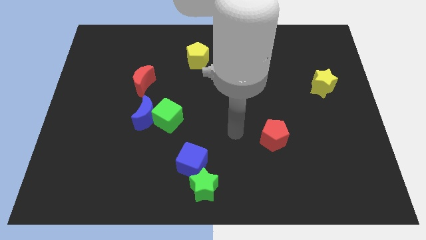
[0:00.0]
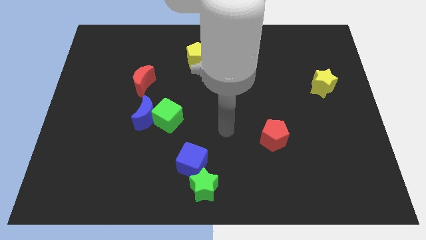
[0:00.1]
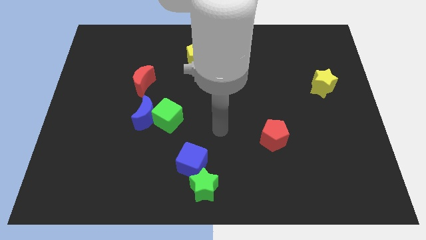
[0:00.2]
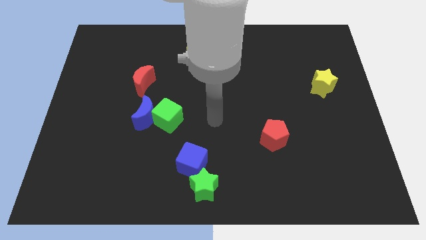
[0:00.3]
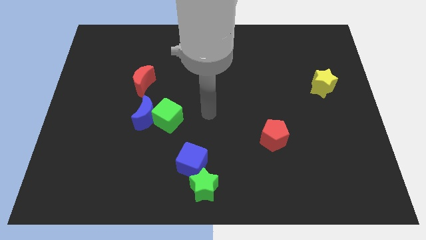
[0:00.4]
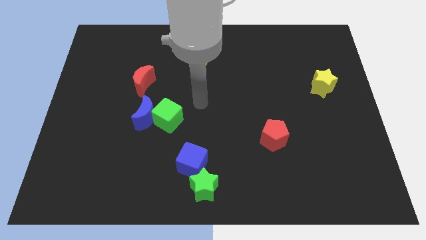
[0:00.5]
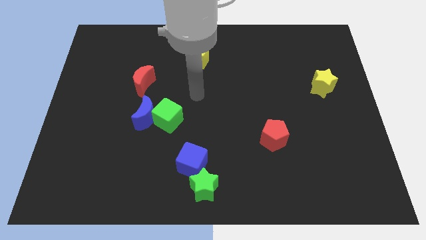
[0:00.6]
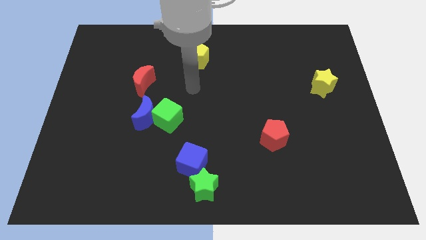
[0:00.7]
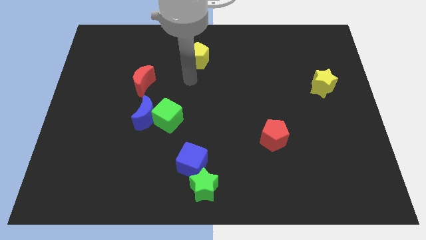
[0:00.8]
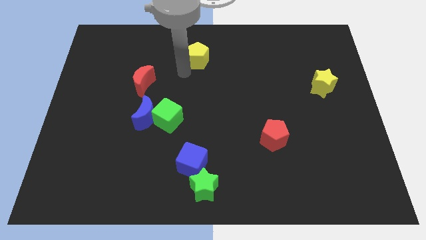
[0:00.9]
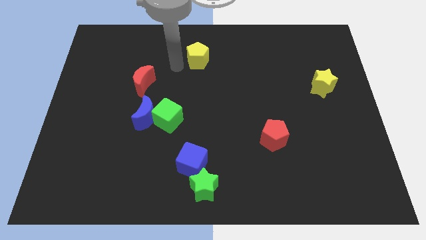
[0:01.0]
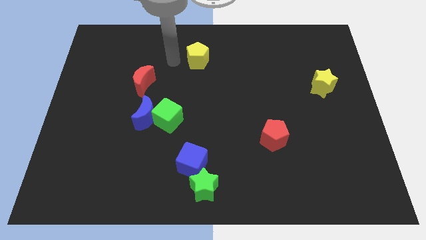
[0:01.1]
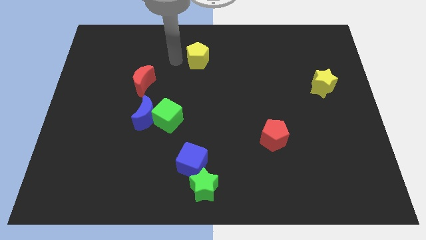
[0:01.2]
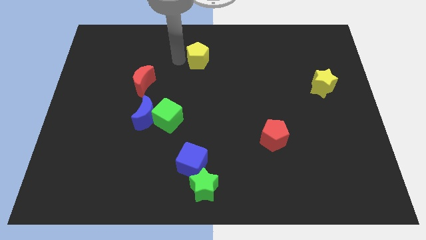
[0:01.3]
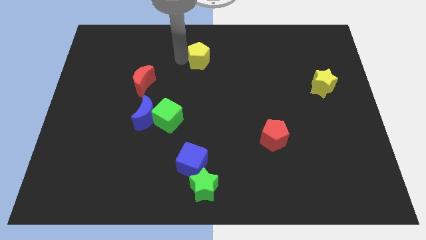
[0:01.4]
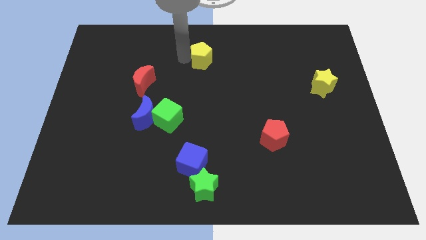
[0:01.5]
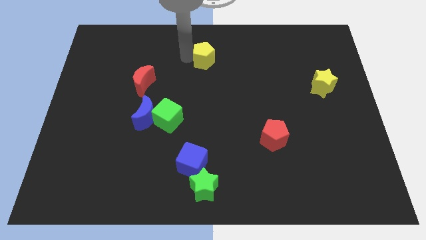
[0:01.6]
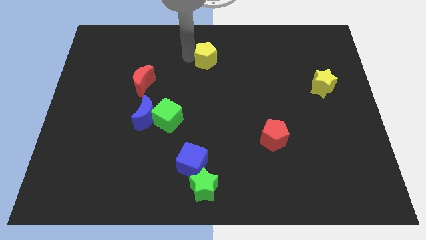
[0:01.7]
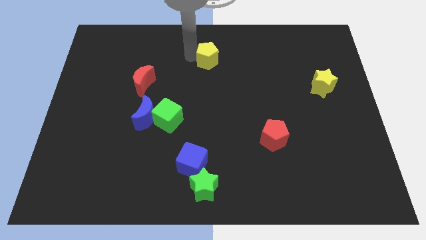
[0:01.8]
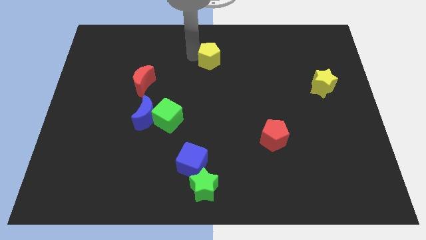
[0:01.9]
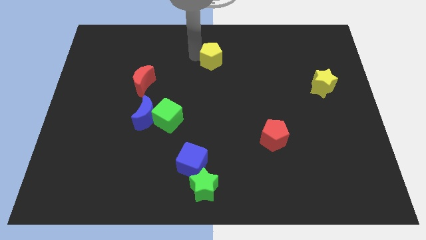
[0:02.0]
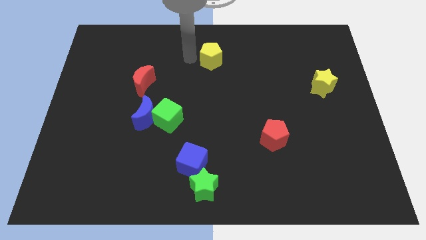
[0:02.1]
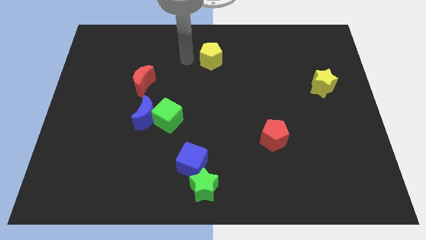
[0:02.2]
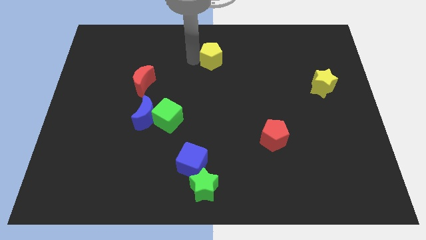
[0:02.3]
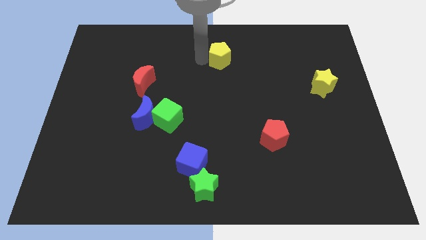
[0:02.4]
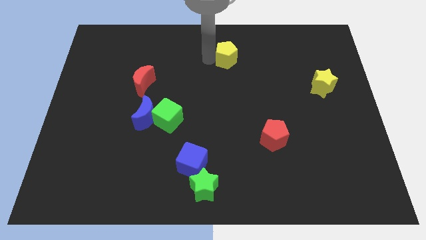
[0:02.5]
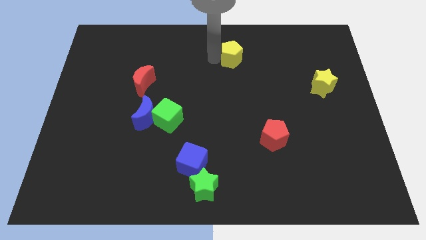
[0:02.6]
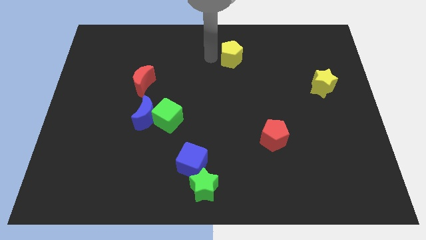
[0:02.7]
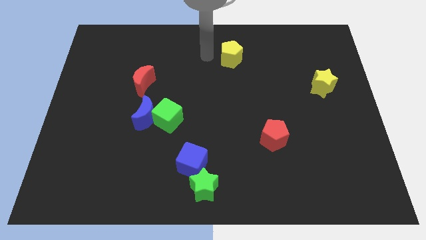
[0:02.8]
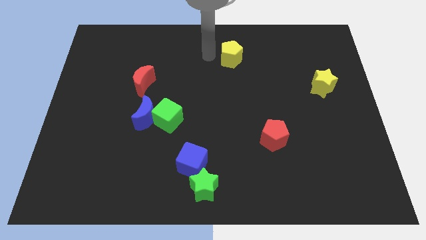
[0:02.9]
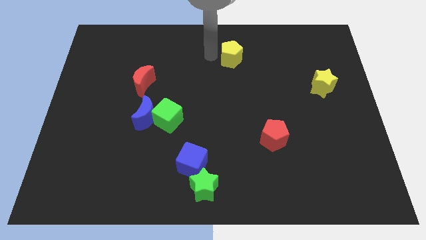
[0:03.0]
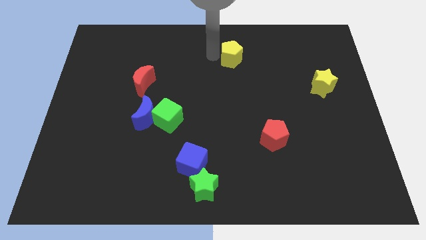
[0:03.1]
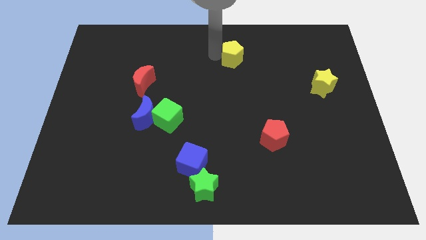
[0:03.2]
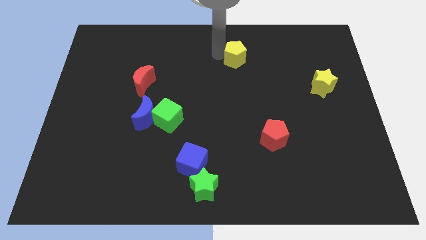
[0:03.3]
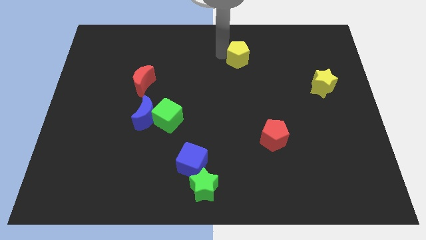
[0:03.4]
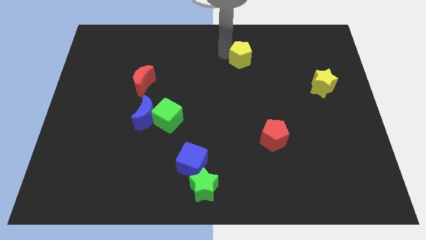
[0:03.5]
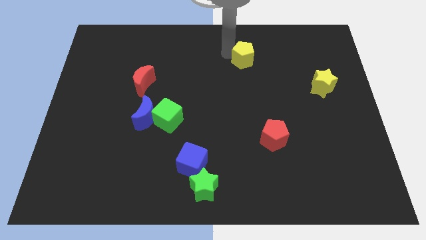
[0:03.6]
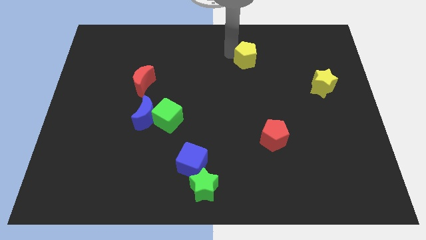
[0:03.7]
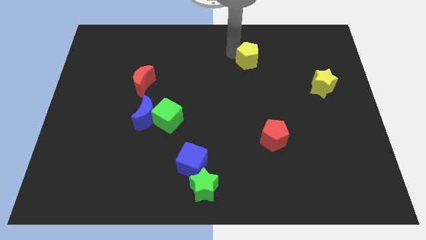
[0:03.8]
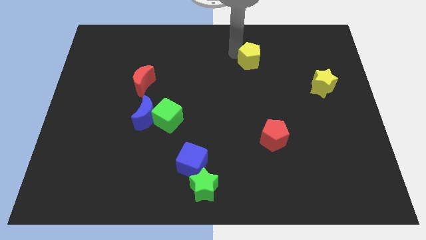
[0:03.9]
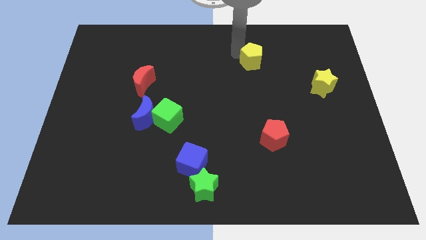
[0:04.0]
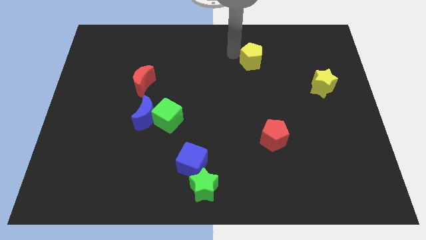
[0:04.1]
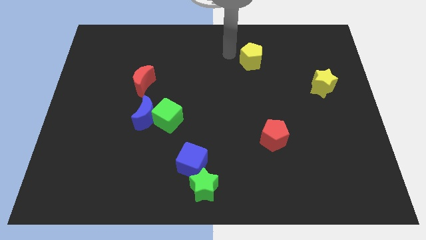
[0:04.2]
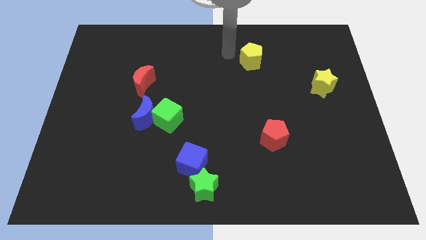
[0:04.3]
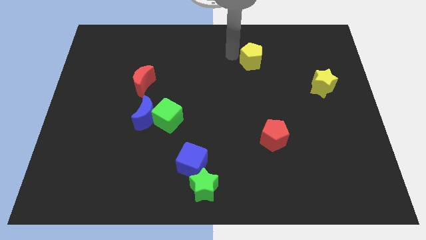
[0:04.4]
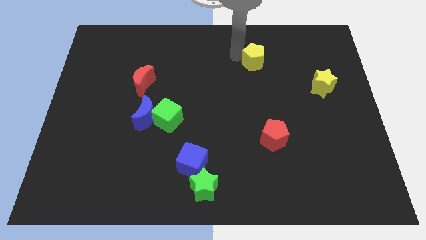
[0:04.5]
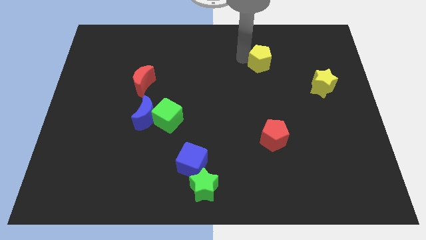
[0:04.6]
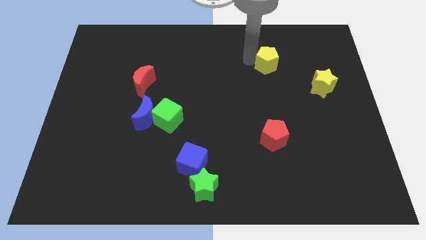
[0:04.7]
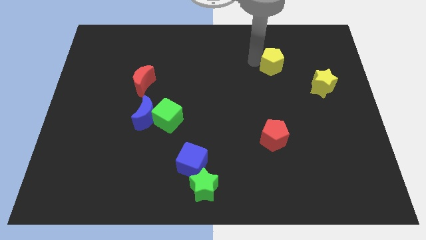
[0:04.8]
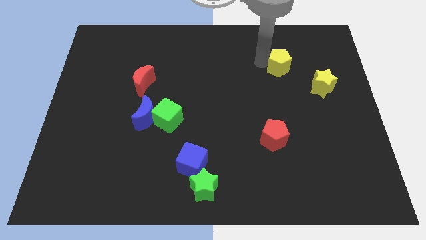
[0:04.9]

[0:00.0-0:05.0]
move the yellow pentagon to the top left side of the yellow star

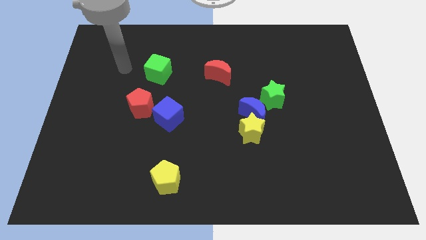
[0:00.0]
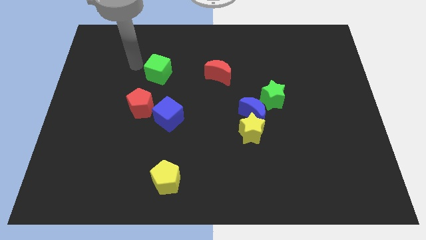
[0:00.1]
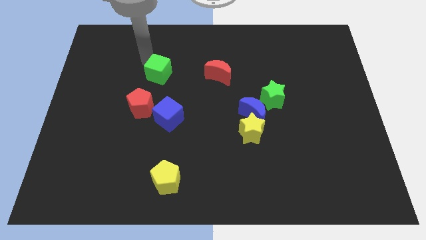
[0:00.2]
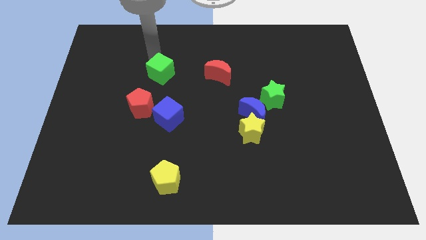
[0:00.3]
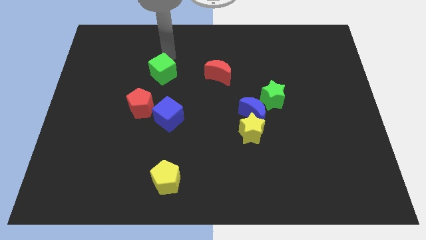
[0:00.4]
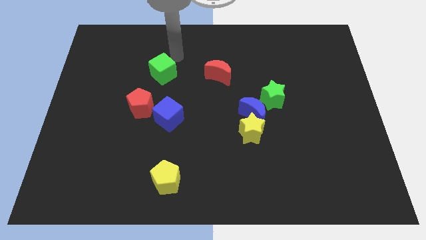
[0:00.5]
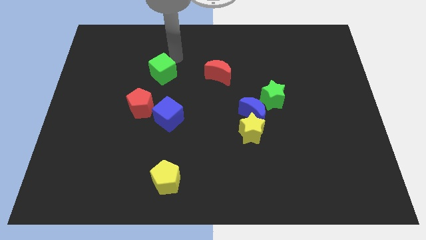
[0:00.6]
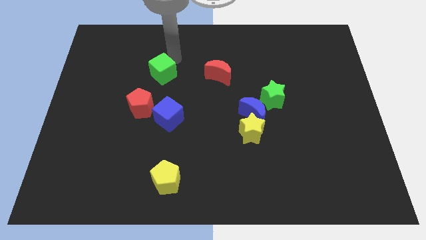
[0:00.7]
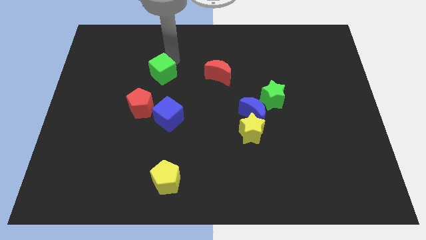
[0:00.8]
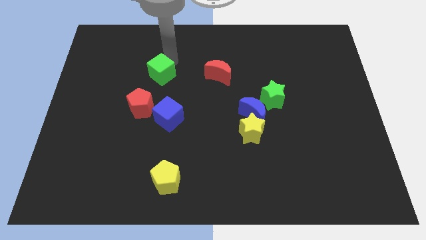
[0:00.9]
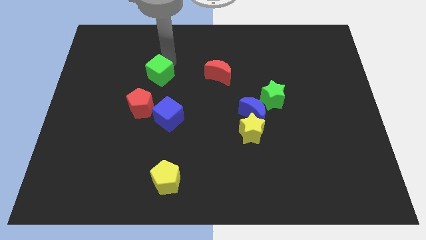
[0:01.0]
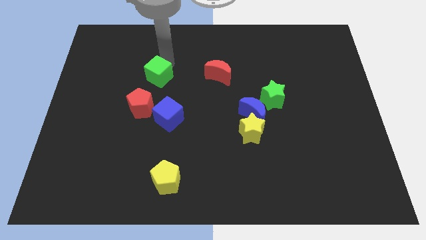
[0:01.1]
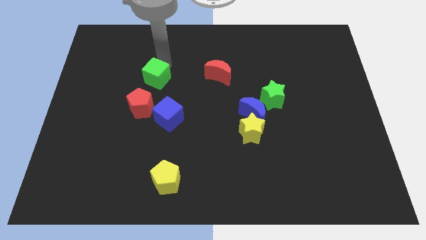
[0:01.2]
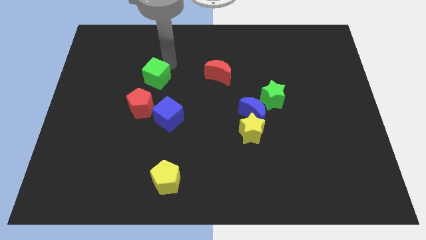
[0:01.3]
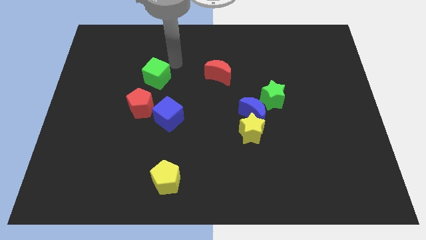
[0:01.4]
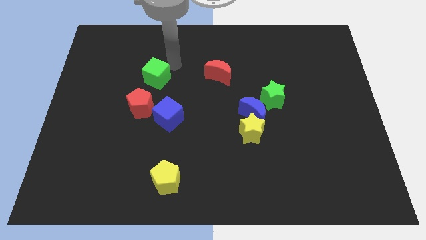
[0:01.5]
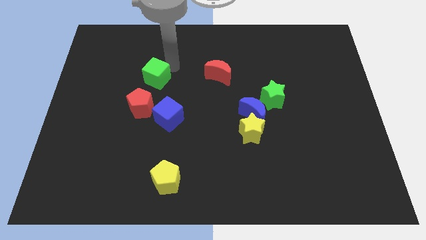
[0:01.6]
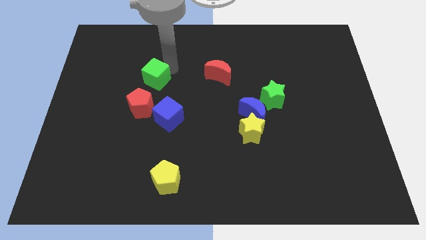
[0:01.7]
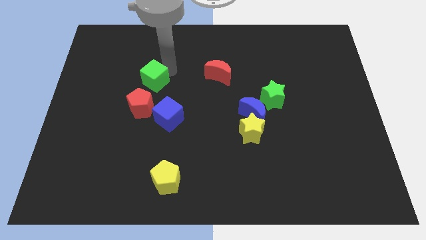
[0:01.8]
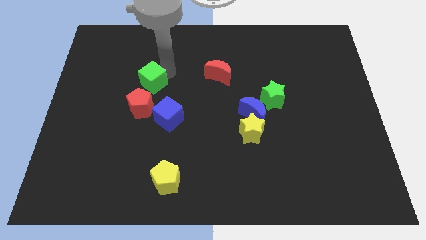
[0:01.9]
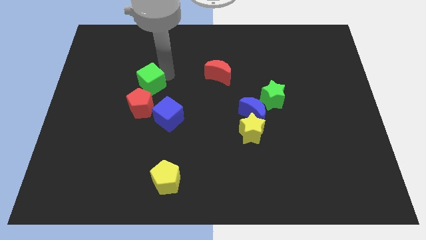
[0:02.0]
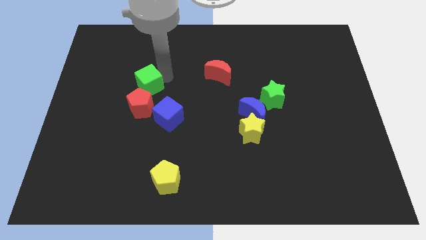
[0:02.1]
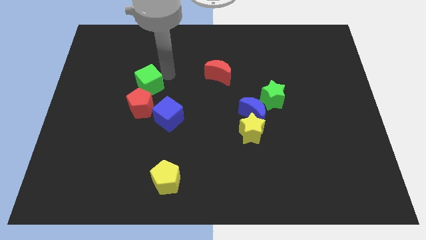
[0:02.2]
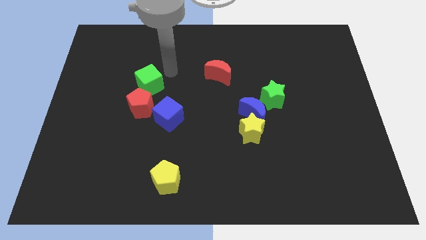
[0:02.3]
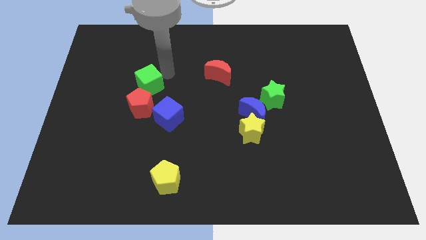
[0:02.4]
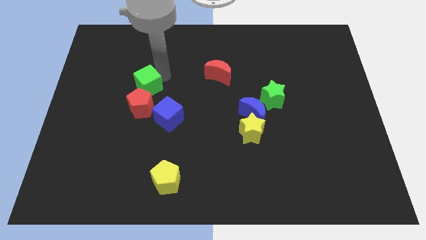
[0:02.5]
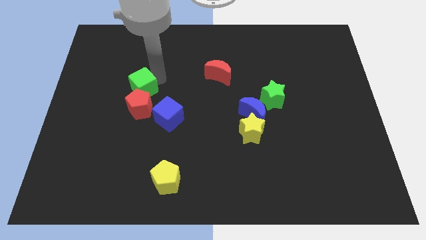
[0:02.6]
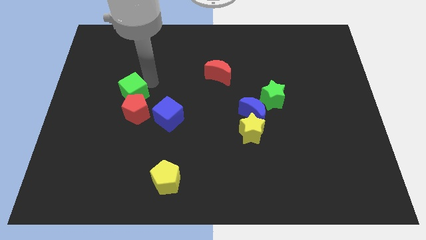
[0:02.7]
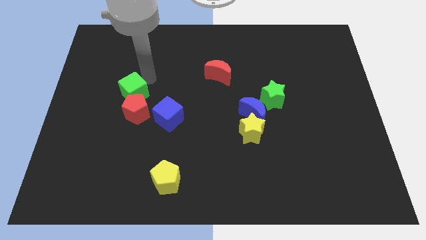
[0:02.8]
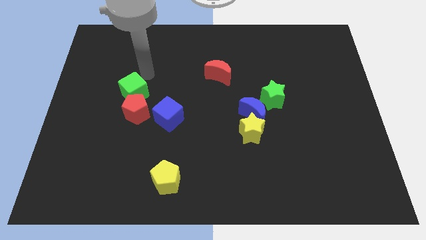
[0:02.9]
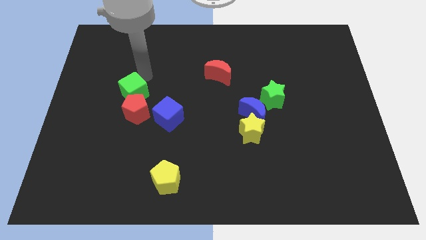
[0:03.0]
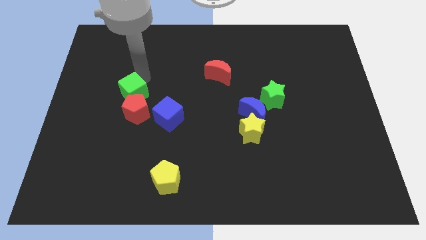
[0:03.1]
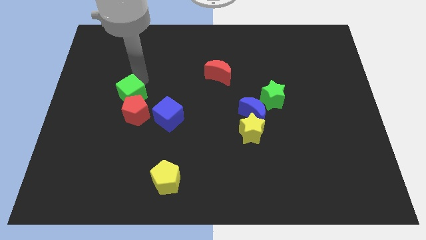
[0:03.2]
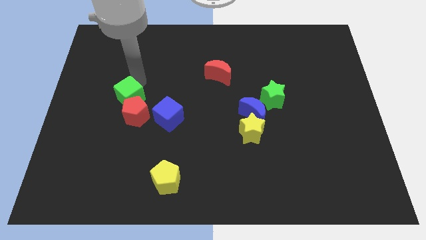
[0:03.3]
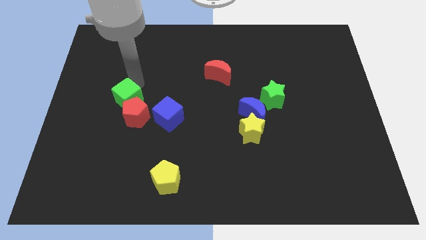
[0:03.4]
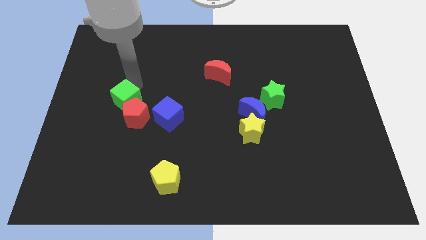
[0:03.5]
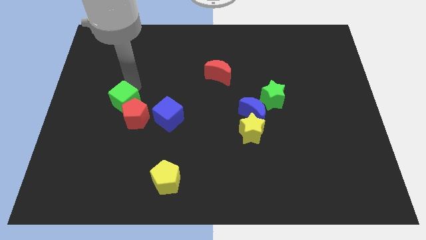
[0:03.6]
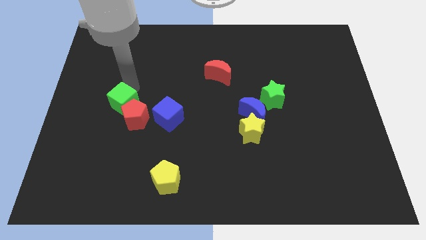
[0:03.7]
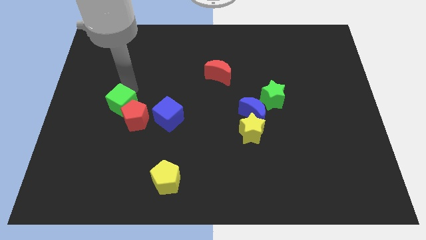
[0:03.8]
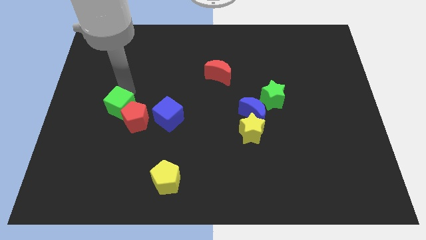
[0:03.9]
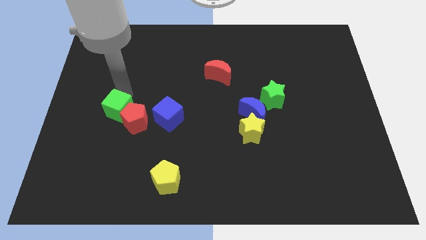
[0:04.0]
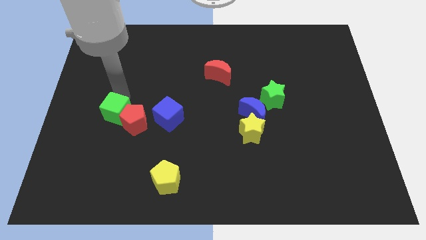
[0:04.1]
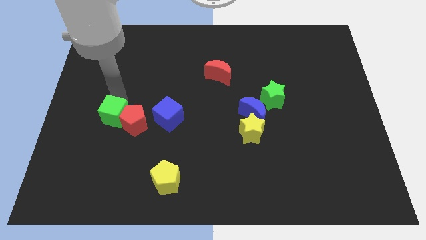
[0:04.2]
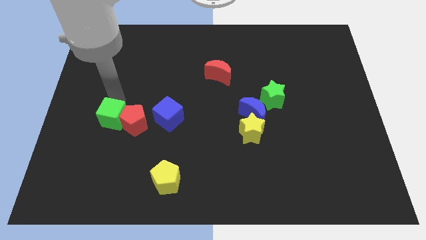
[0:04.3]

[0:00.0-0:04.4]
slide the green cube diagonally down and to the left of the red pentagon
